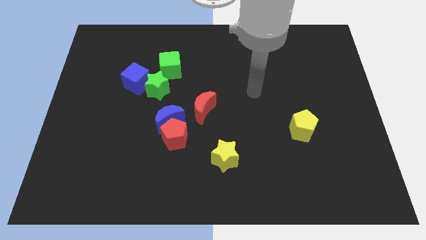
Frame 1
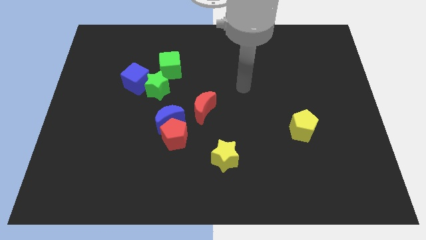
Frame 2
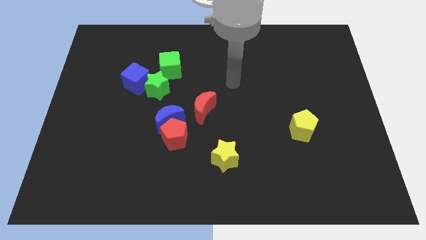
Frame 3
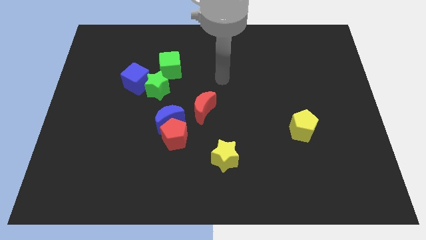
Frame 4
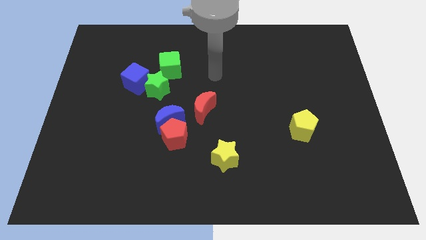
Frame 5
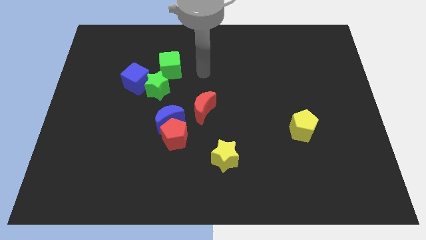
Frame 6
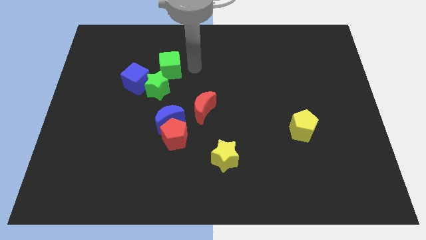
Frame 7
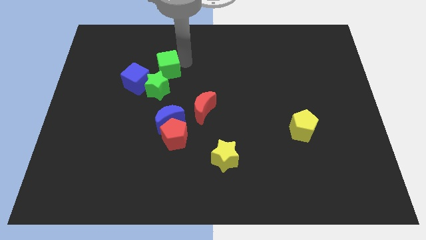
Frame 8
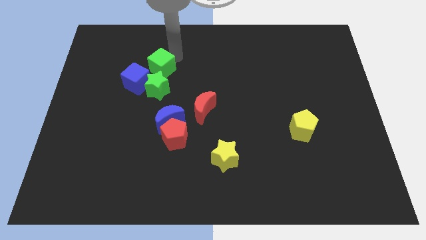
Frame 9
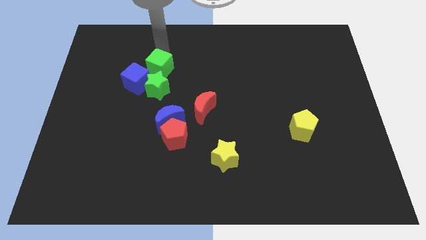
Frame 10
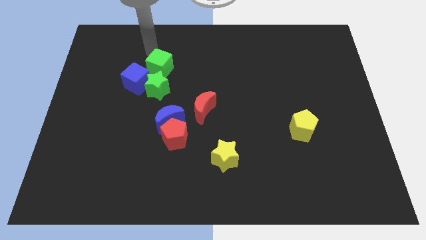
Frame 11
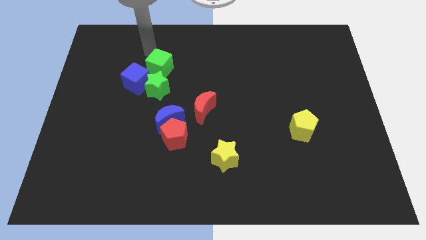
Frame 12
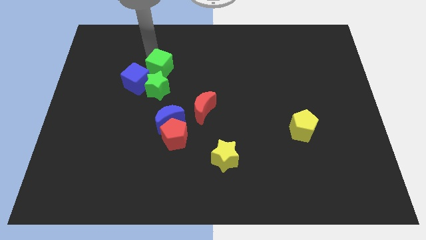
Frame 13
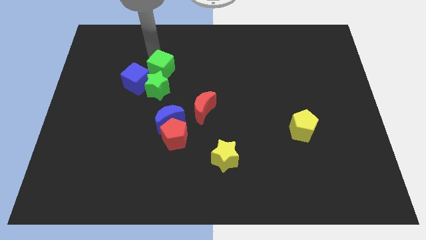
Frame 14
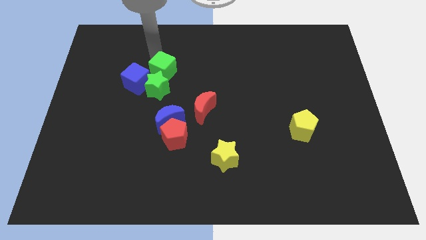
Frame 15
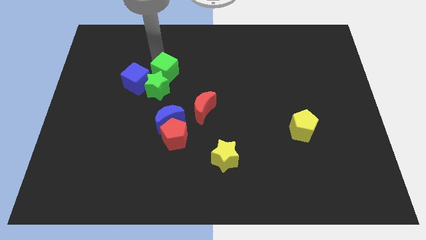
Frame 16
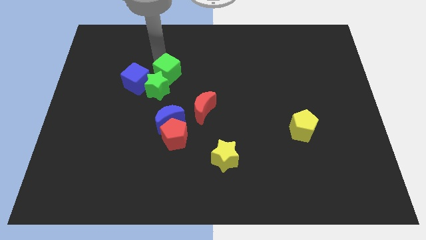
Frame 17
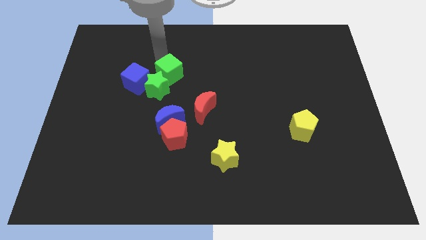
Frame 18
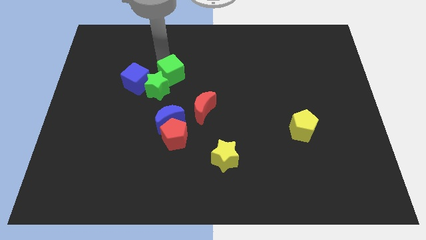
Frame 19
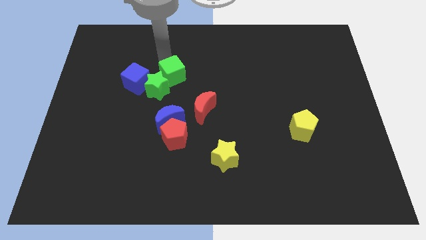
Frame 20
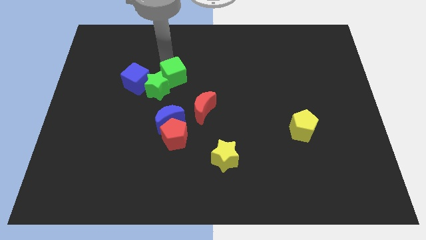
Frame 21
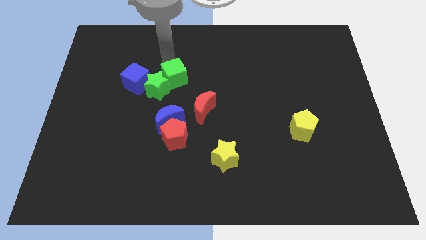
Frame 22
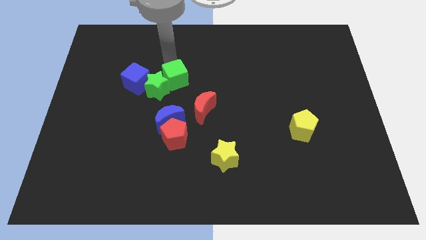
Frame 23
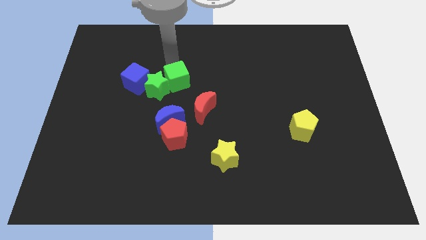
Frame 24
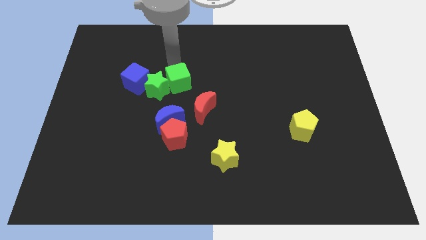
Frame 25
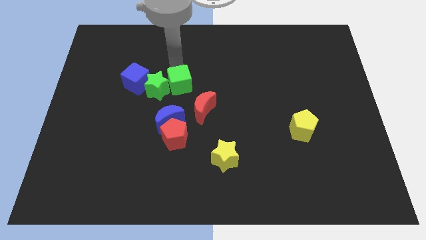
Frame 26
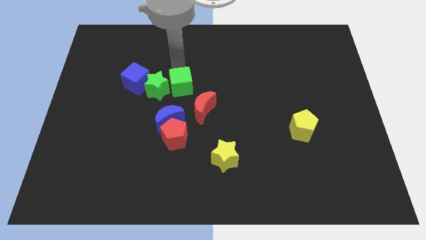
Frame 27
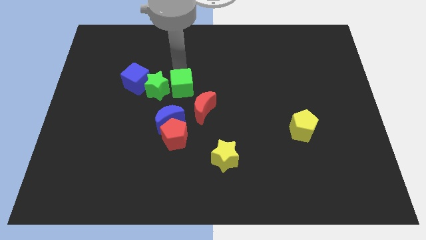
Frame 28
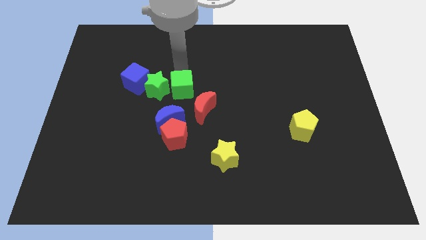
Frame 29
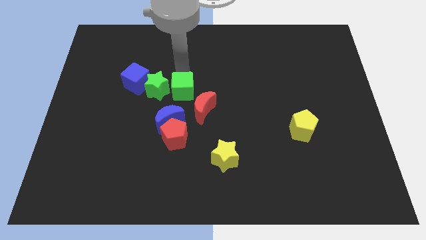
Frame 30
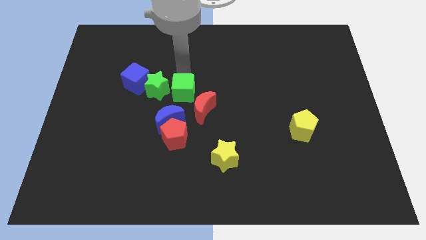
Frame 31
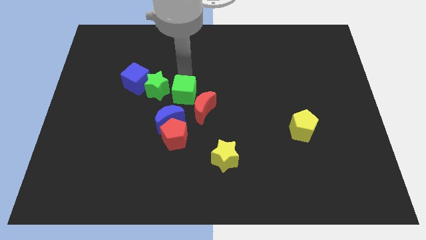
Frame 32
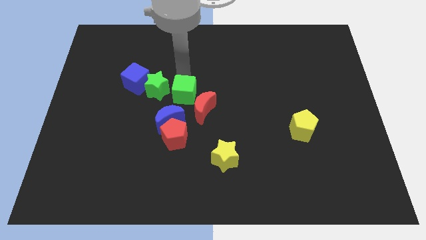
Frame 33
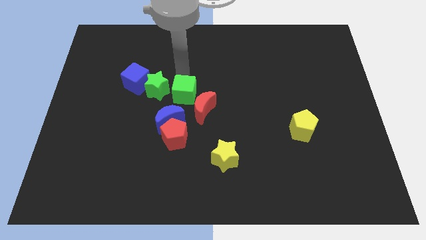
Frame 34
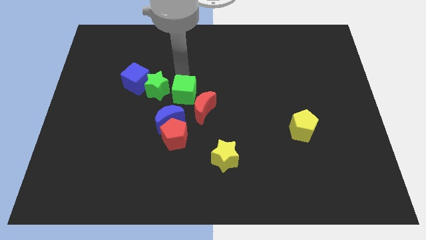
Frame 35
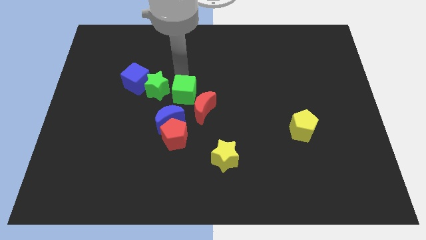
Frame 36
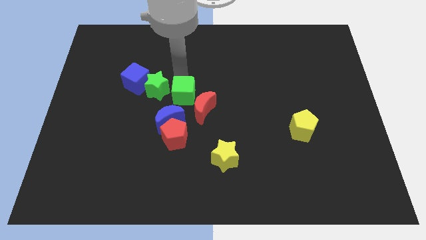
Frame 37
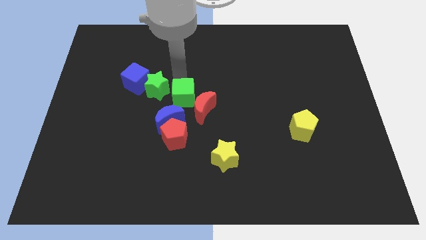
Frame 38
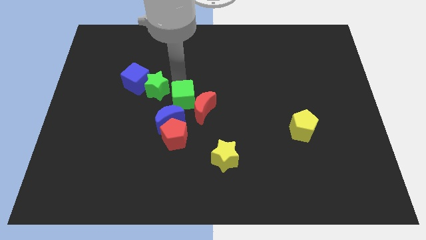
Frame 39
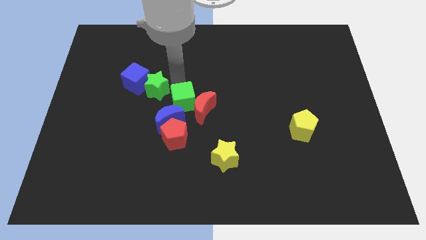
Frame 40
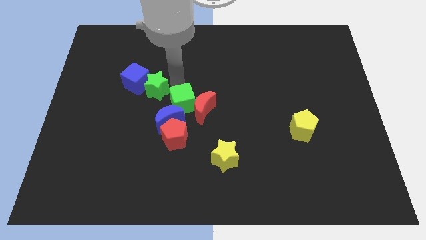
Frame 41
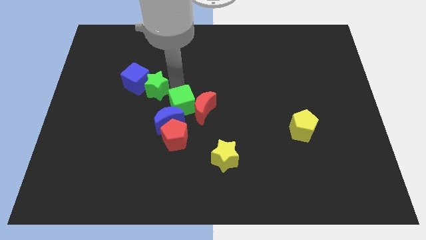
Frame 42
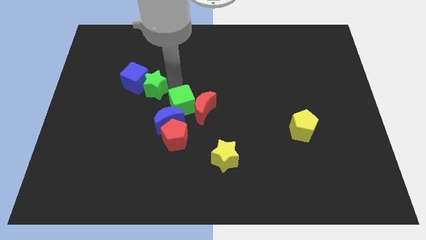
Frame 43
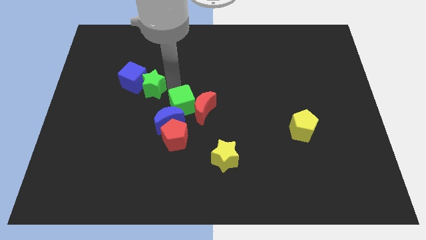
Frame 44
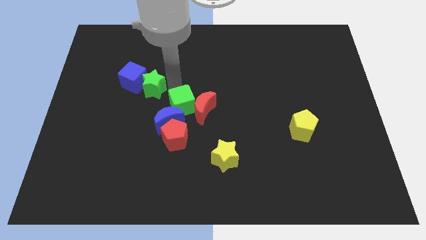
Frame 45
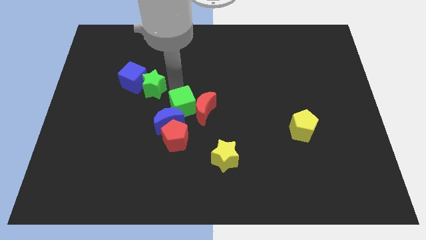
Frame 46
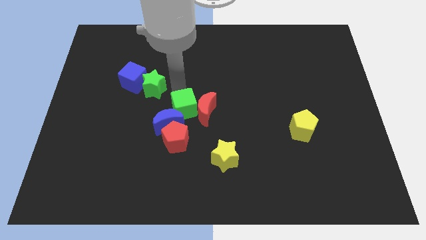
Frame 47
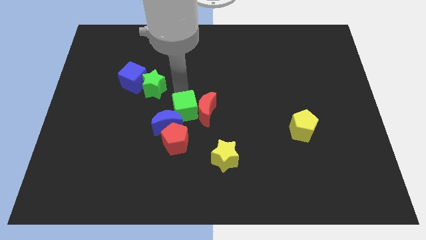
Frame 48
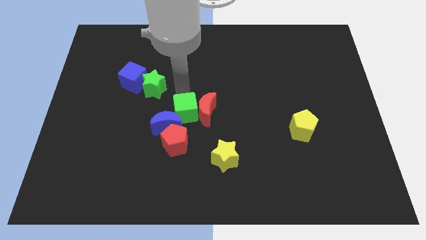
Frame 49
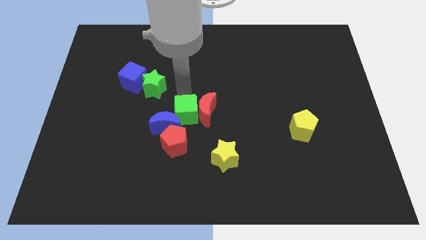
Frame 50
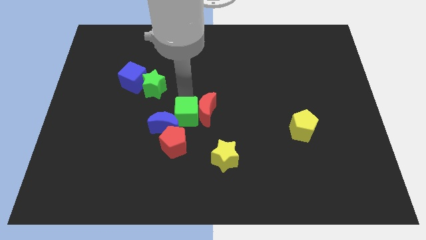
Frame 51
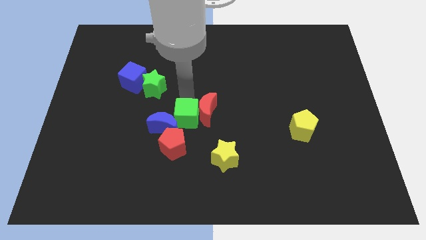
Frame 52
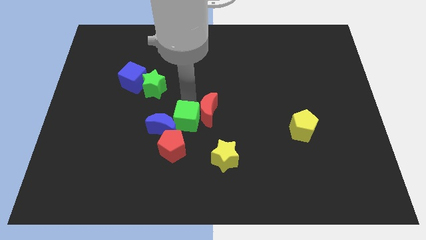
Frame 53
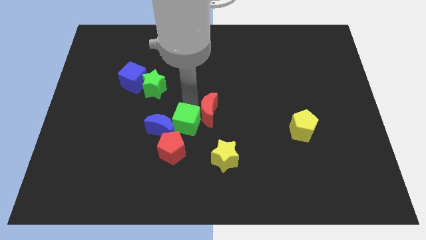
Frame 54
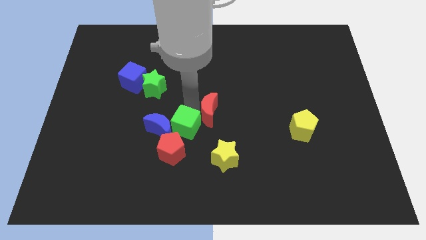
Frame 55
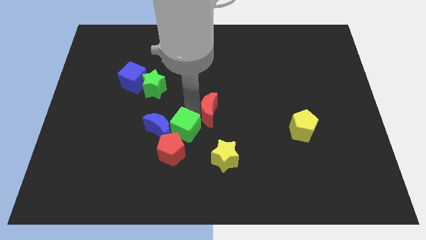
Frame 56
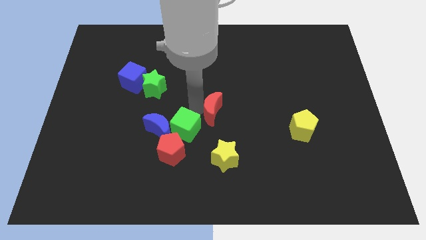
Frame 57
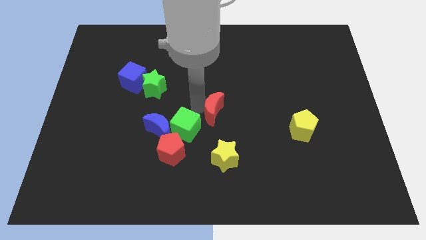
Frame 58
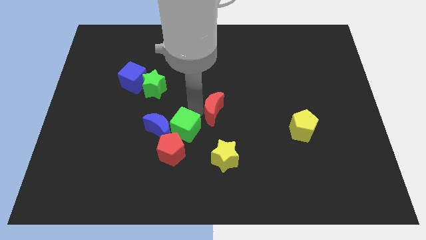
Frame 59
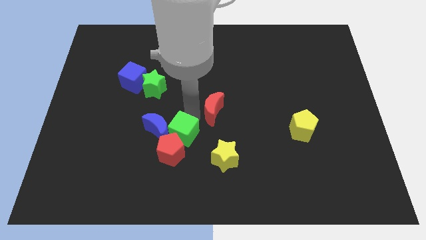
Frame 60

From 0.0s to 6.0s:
put the green cube close to the red pentagon

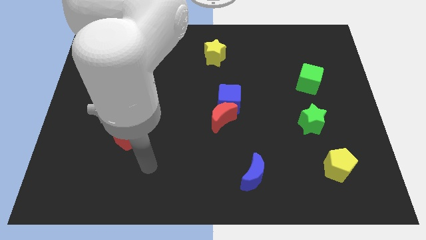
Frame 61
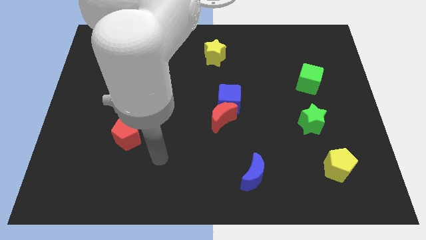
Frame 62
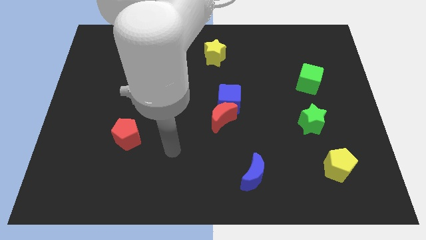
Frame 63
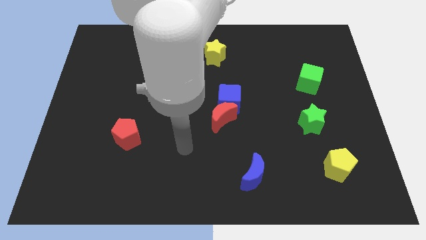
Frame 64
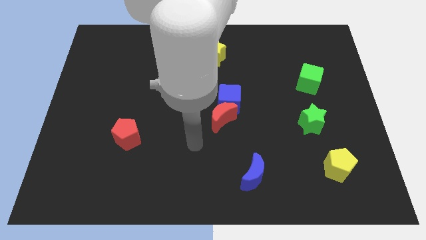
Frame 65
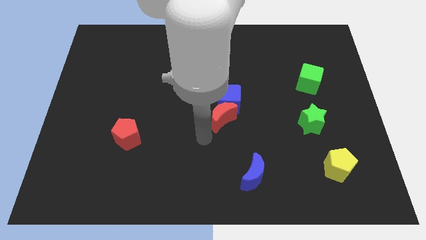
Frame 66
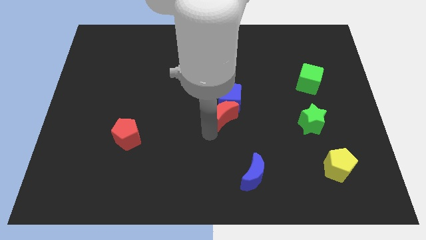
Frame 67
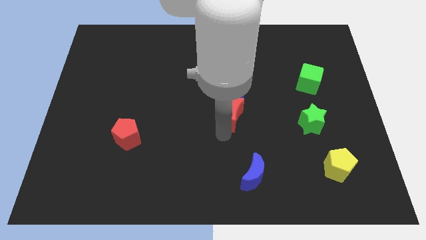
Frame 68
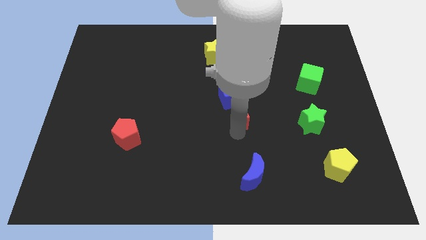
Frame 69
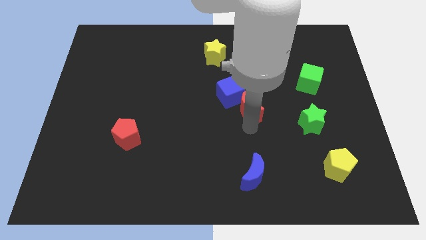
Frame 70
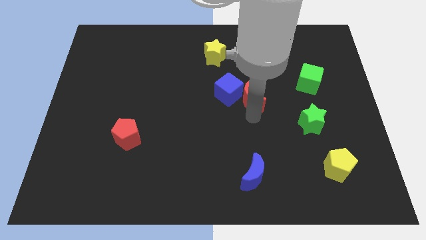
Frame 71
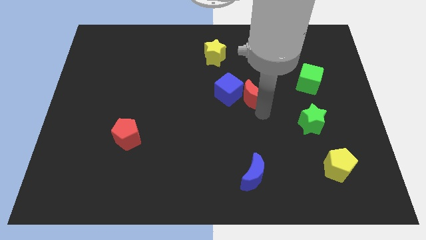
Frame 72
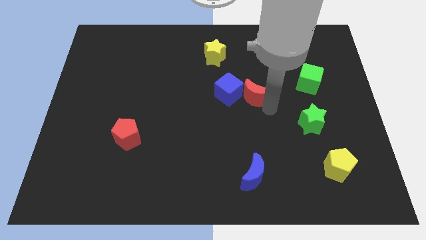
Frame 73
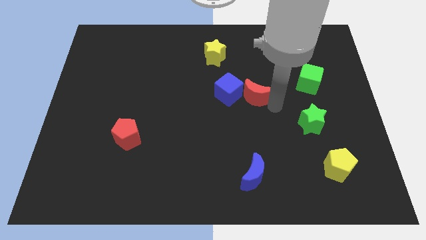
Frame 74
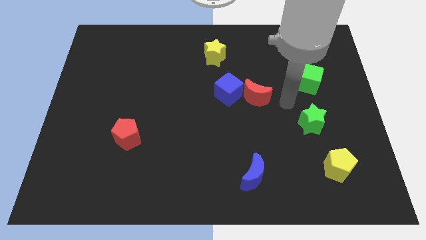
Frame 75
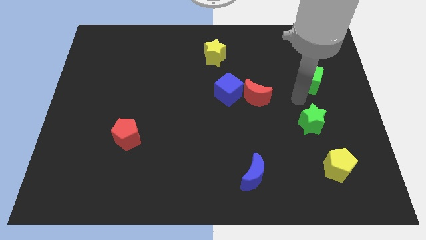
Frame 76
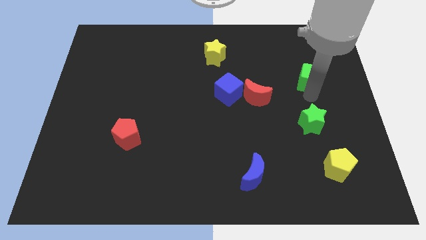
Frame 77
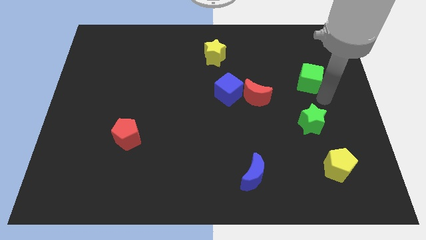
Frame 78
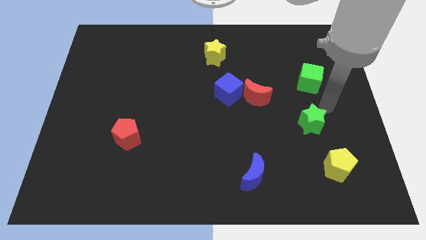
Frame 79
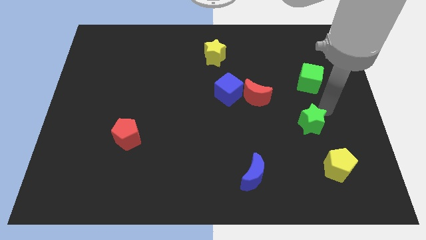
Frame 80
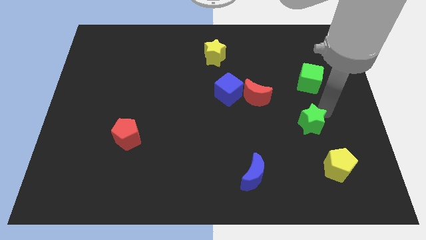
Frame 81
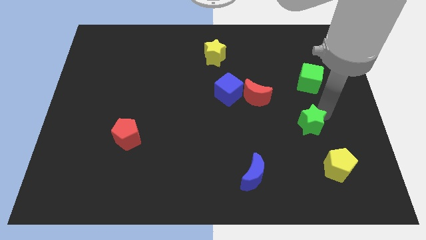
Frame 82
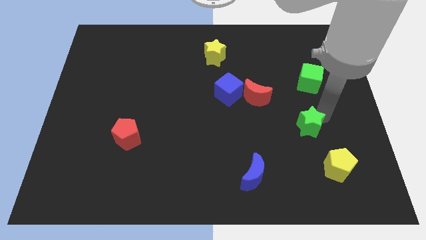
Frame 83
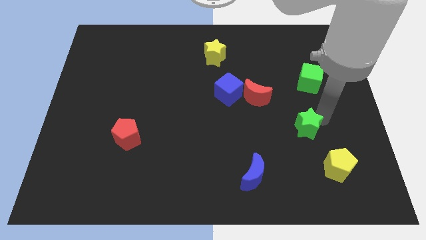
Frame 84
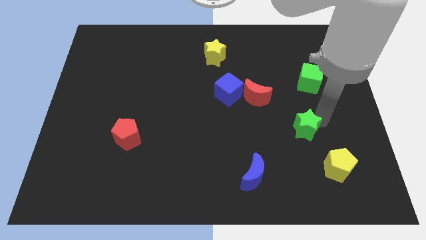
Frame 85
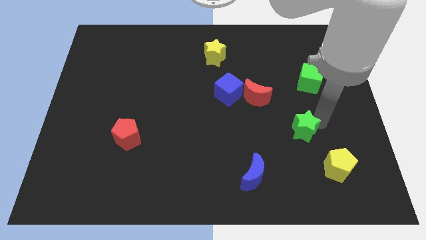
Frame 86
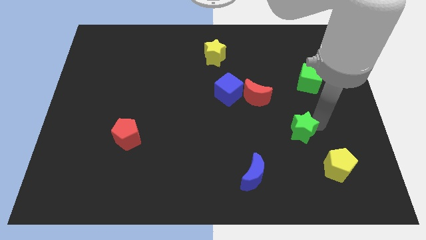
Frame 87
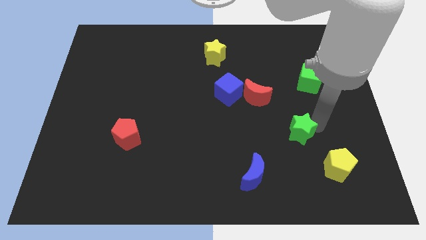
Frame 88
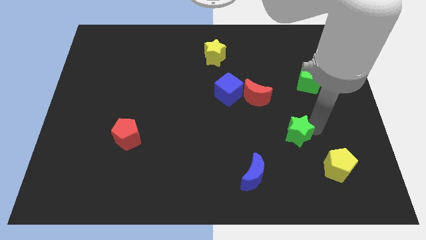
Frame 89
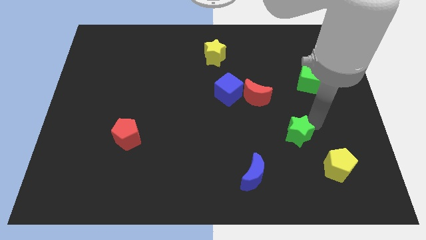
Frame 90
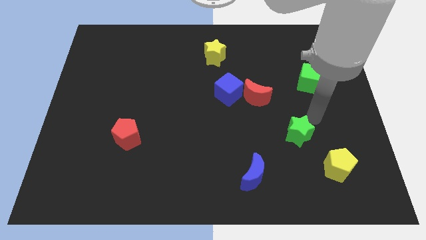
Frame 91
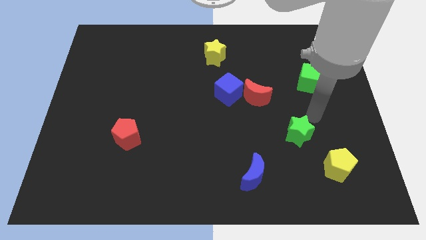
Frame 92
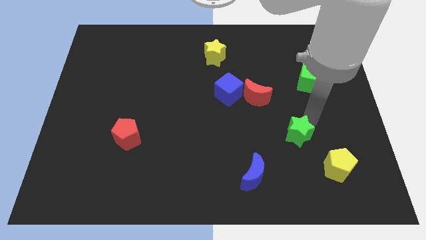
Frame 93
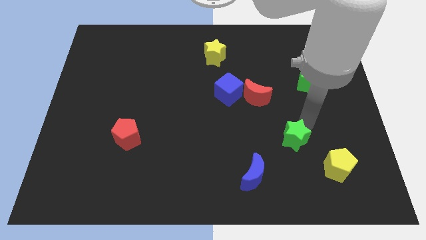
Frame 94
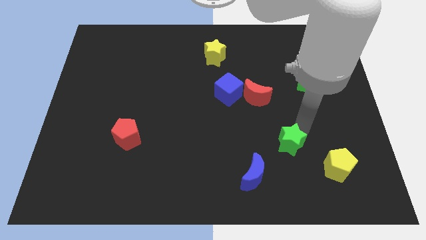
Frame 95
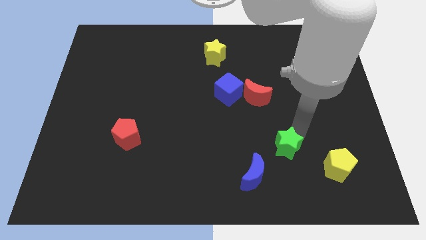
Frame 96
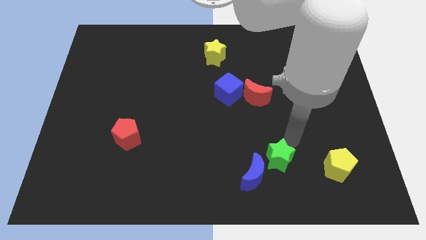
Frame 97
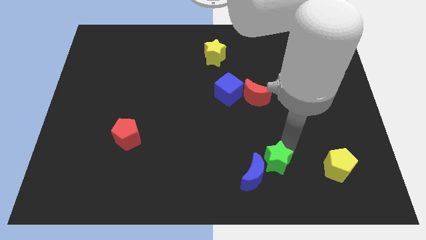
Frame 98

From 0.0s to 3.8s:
move the green star towards the blue moon
